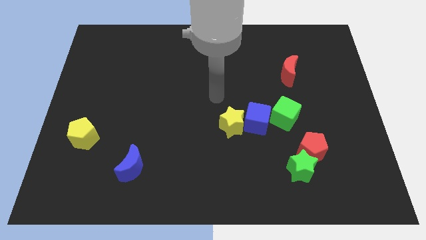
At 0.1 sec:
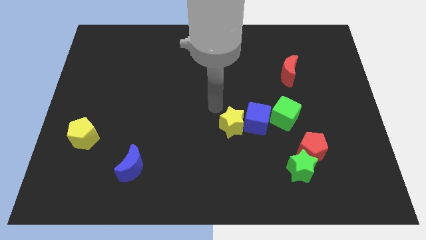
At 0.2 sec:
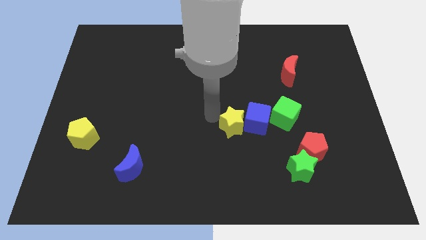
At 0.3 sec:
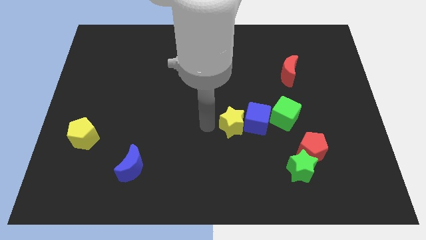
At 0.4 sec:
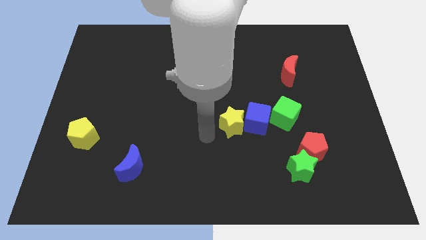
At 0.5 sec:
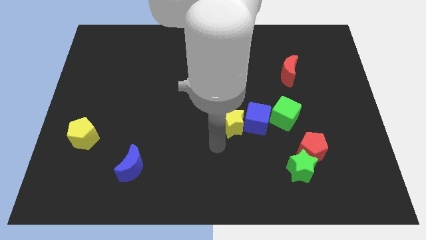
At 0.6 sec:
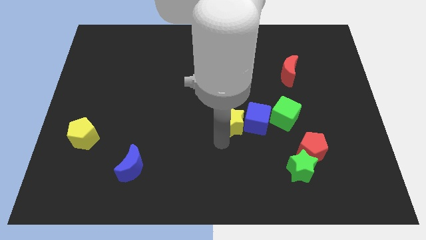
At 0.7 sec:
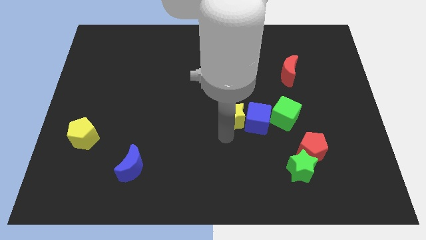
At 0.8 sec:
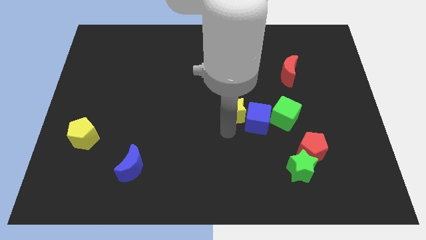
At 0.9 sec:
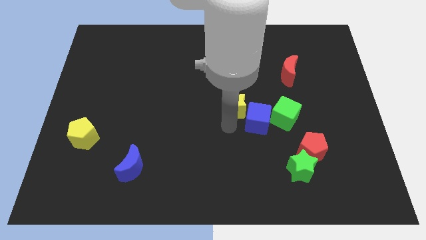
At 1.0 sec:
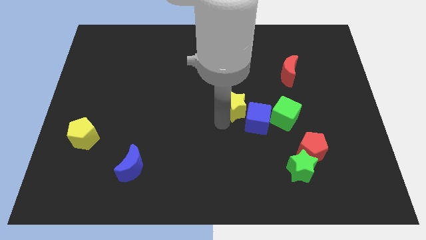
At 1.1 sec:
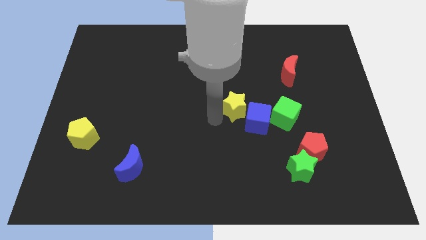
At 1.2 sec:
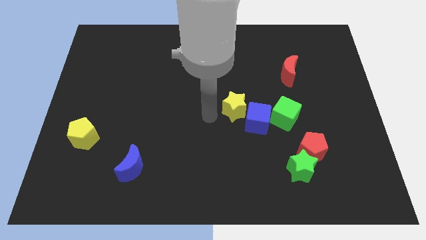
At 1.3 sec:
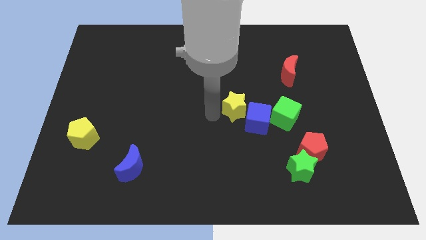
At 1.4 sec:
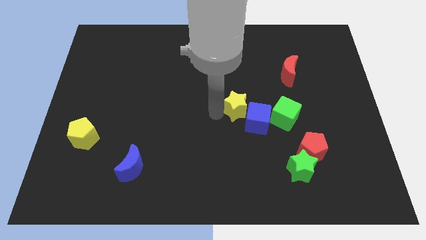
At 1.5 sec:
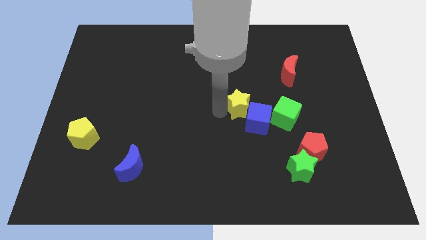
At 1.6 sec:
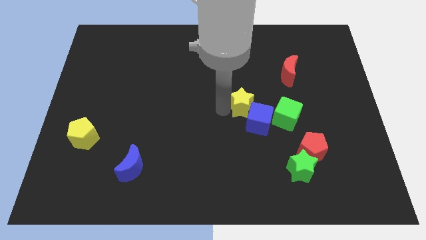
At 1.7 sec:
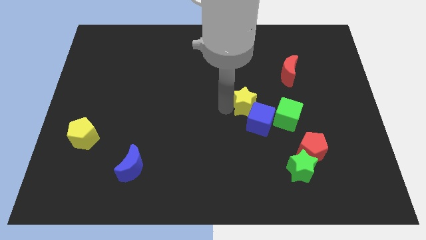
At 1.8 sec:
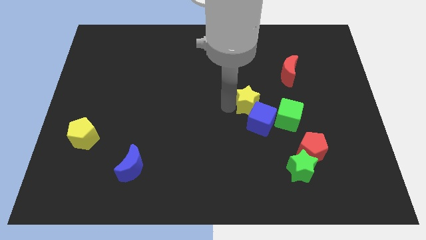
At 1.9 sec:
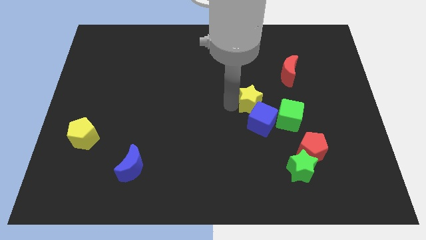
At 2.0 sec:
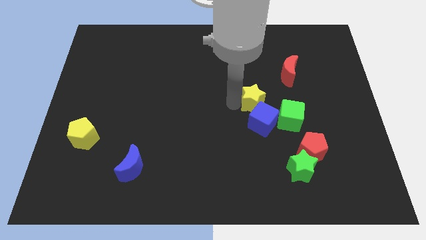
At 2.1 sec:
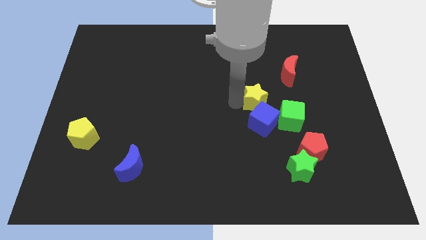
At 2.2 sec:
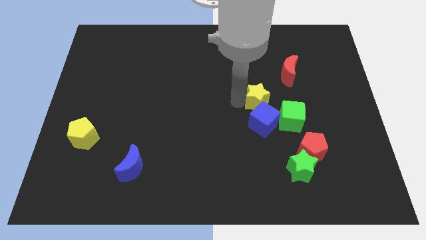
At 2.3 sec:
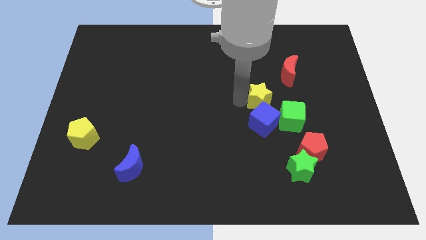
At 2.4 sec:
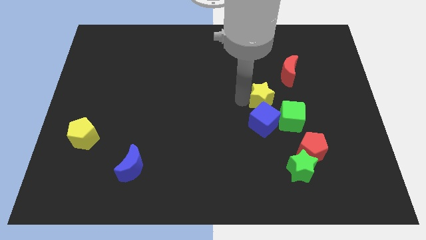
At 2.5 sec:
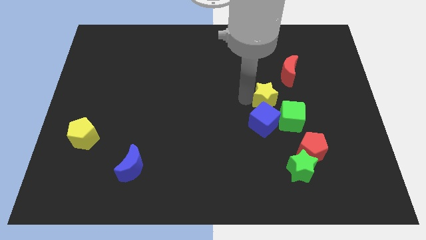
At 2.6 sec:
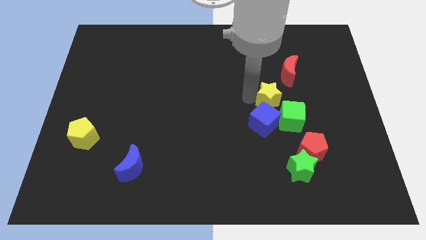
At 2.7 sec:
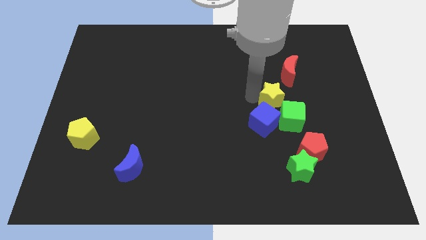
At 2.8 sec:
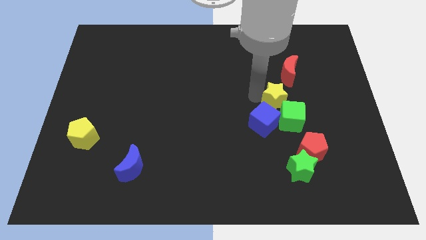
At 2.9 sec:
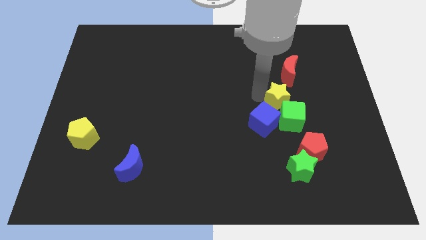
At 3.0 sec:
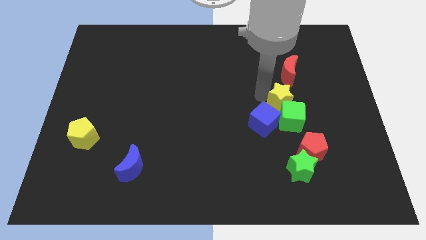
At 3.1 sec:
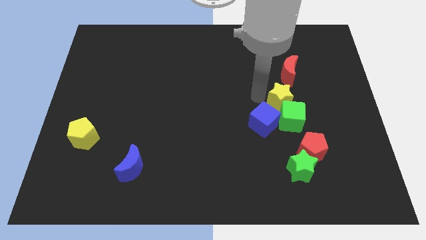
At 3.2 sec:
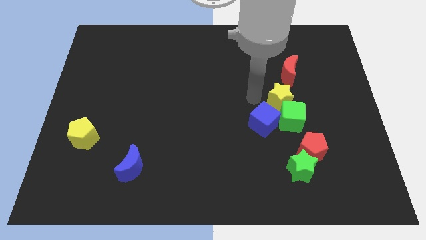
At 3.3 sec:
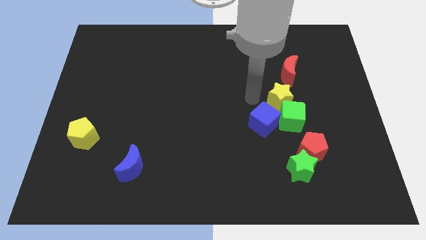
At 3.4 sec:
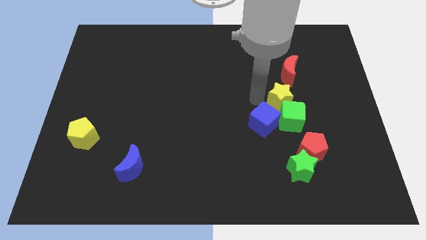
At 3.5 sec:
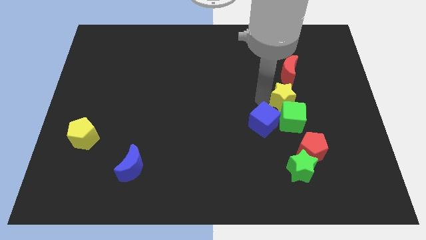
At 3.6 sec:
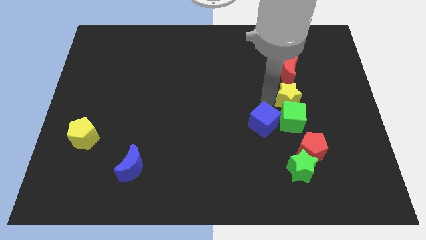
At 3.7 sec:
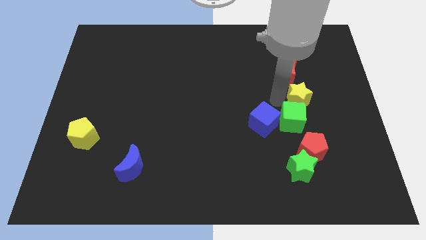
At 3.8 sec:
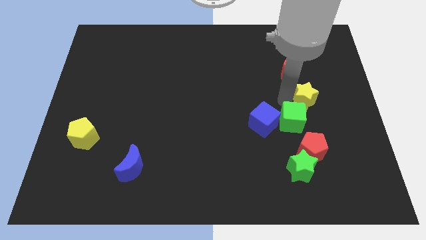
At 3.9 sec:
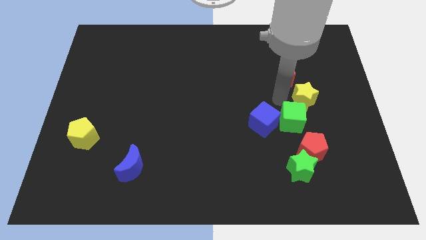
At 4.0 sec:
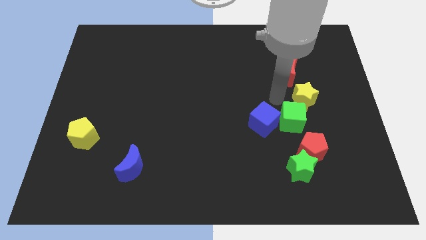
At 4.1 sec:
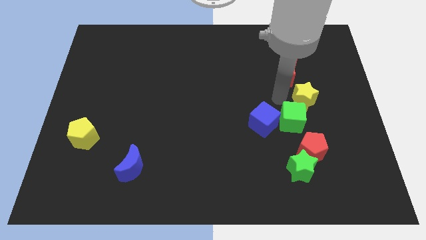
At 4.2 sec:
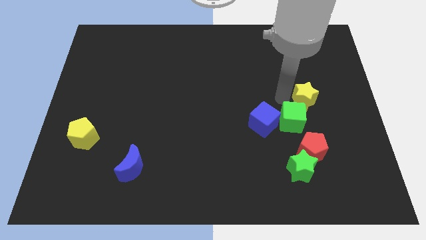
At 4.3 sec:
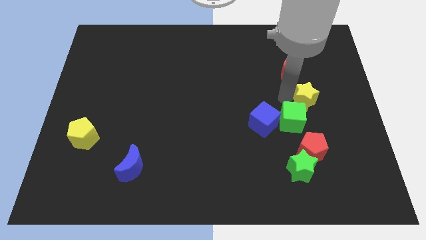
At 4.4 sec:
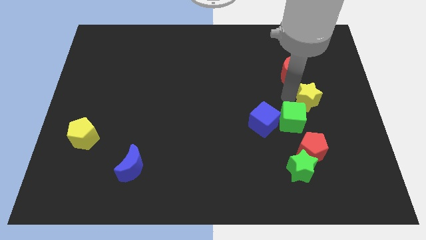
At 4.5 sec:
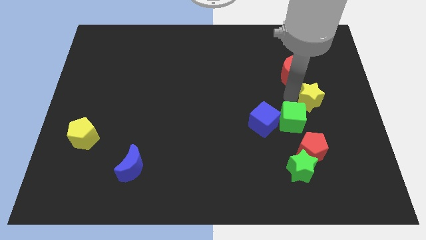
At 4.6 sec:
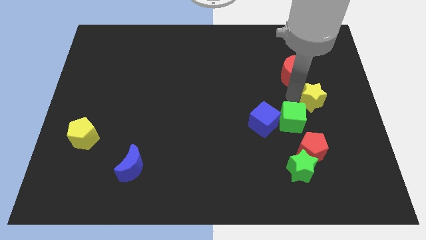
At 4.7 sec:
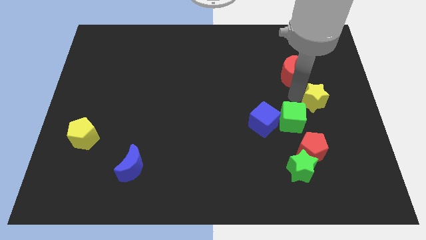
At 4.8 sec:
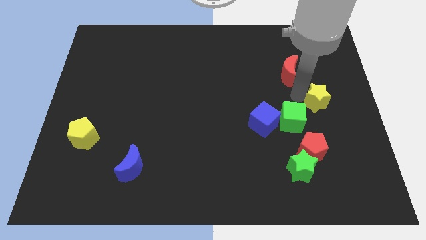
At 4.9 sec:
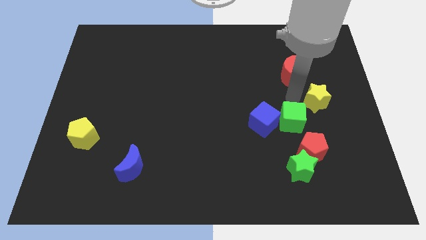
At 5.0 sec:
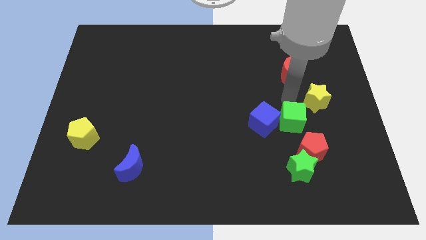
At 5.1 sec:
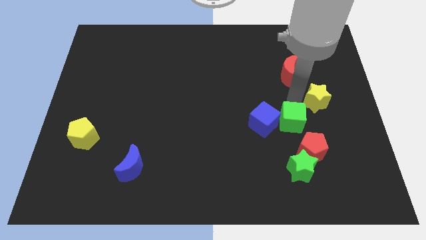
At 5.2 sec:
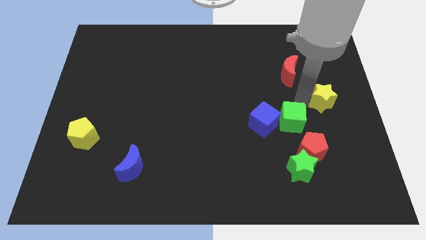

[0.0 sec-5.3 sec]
push the yellow star to the center right
